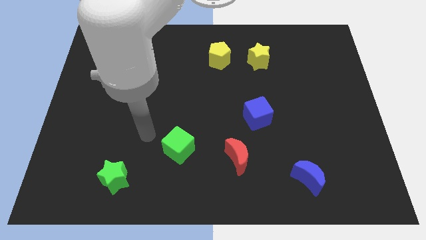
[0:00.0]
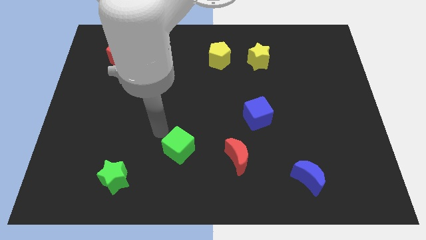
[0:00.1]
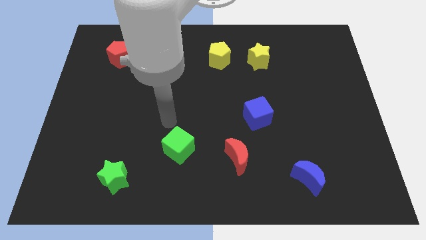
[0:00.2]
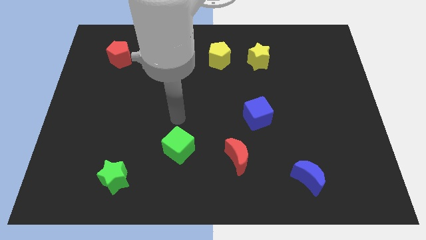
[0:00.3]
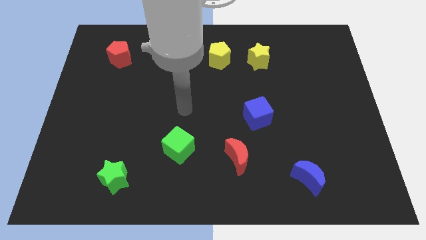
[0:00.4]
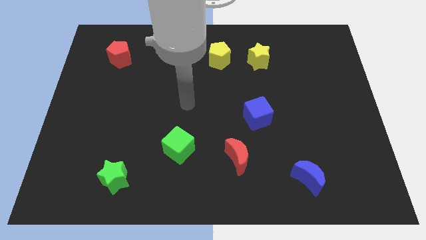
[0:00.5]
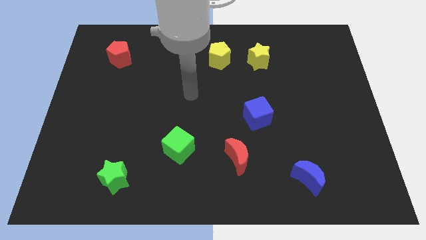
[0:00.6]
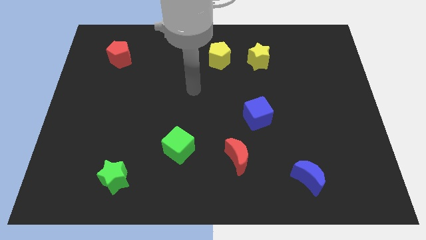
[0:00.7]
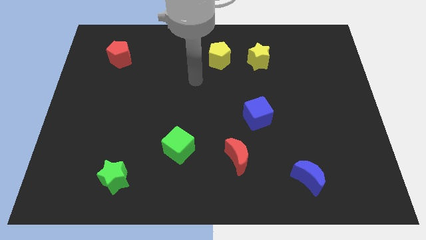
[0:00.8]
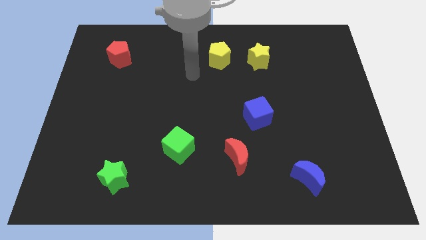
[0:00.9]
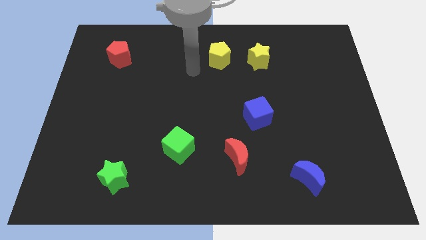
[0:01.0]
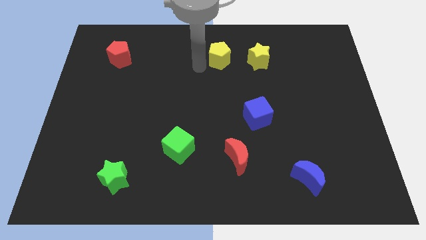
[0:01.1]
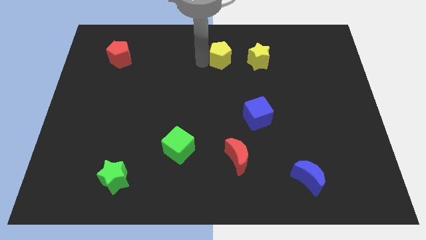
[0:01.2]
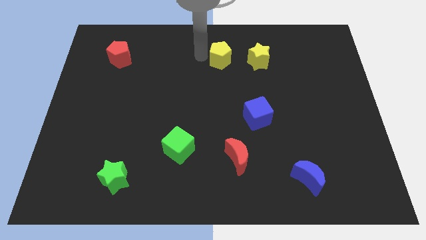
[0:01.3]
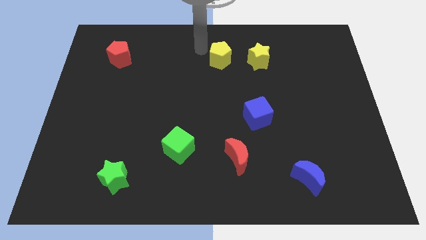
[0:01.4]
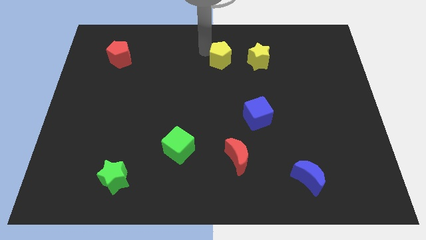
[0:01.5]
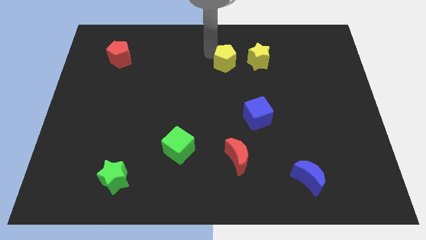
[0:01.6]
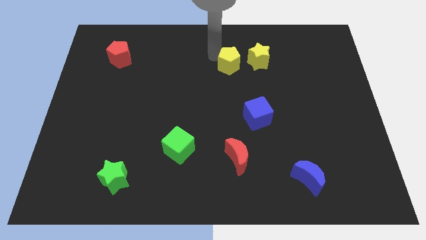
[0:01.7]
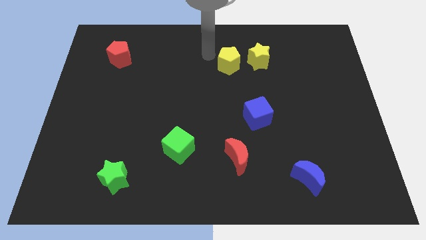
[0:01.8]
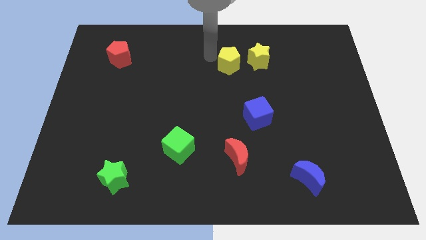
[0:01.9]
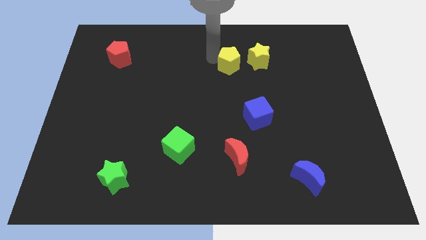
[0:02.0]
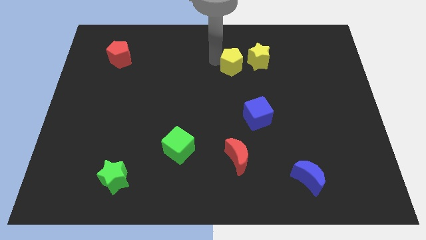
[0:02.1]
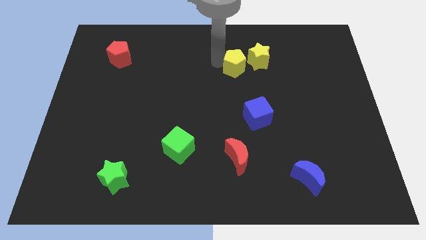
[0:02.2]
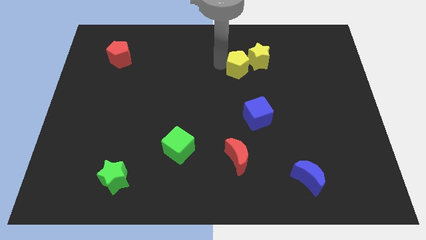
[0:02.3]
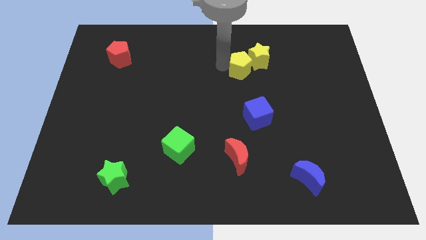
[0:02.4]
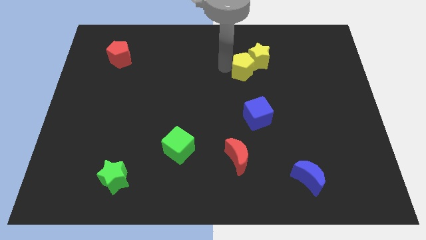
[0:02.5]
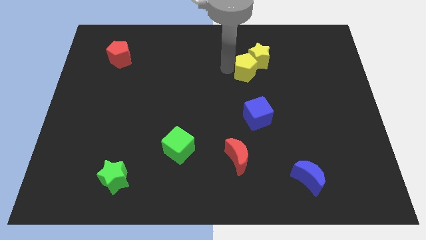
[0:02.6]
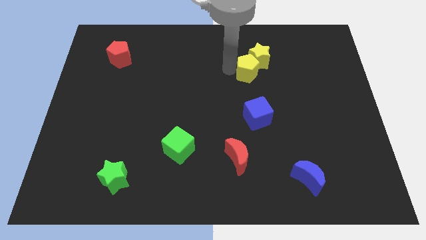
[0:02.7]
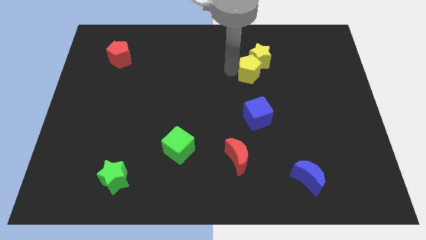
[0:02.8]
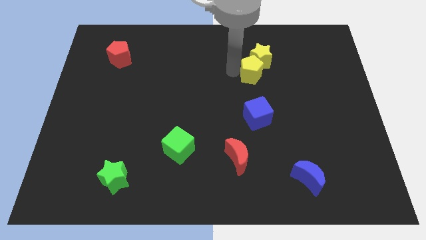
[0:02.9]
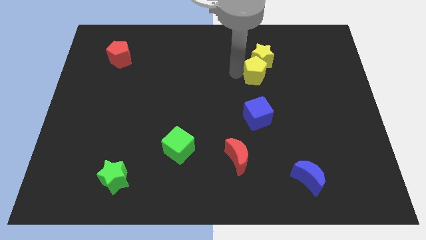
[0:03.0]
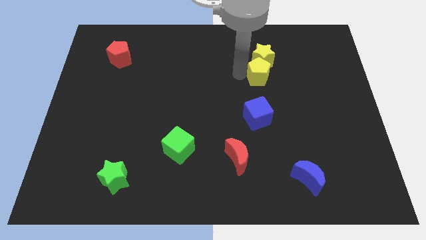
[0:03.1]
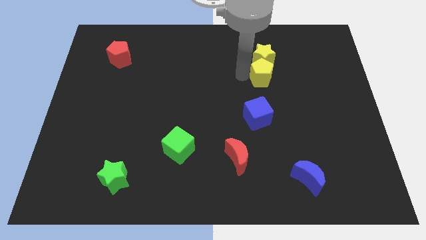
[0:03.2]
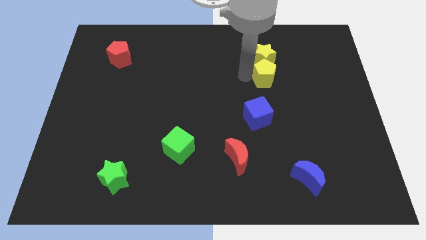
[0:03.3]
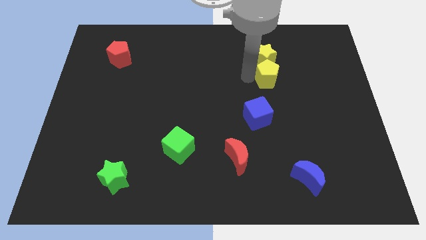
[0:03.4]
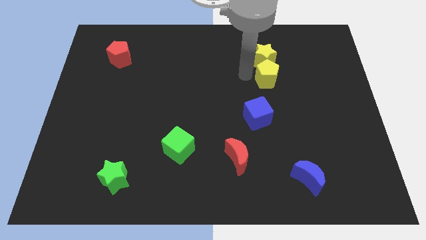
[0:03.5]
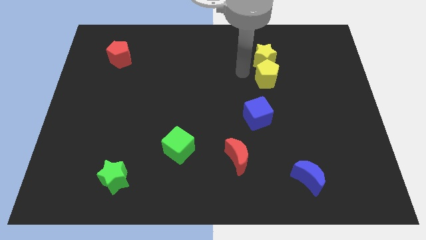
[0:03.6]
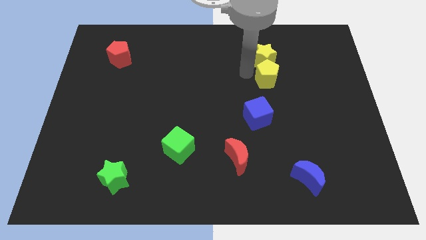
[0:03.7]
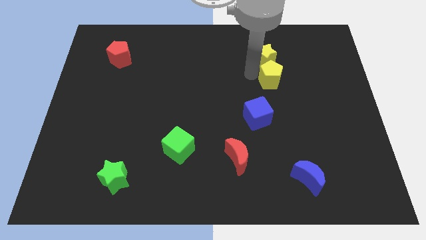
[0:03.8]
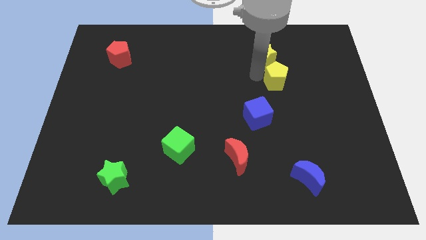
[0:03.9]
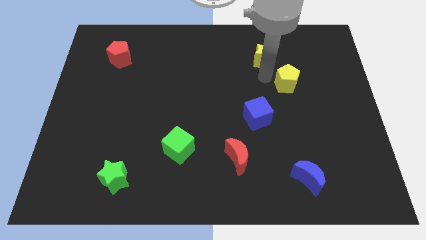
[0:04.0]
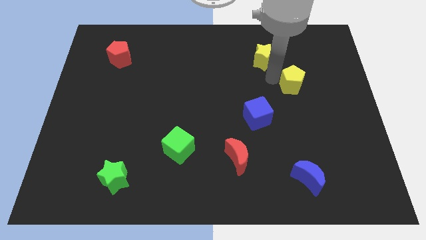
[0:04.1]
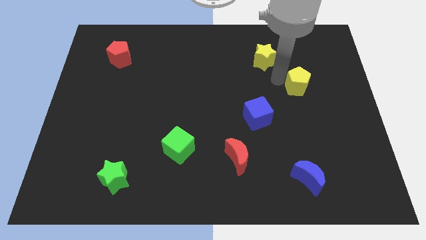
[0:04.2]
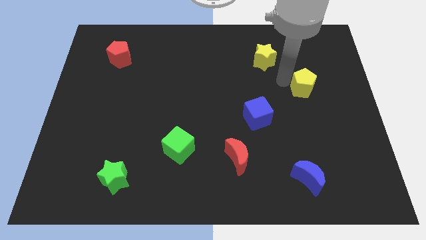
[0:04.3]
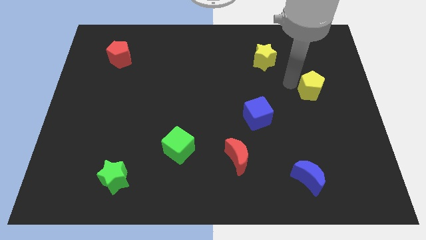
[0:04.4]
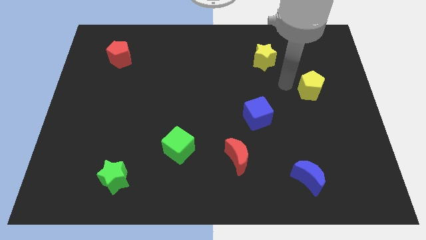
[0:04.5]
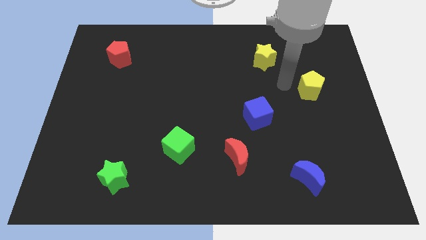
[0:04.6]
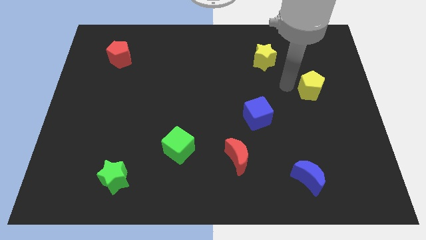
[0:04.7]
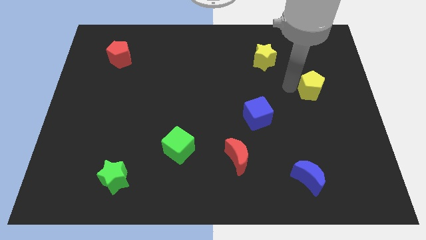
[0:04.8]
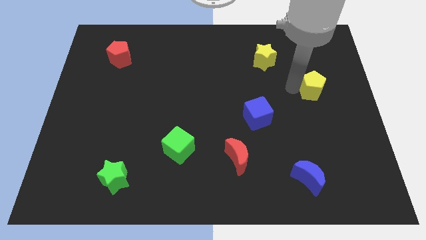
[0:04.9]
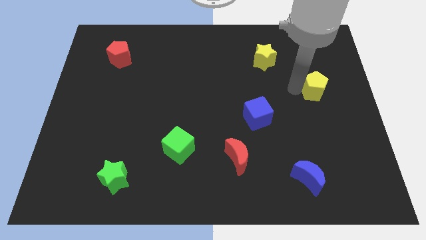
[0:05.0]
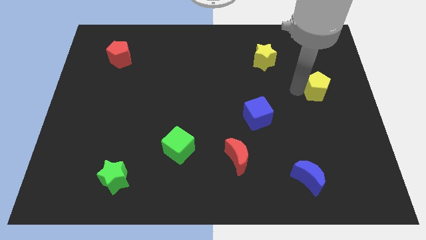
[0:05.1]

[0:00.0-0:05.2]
put the yellow pentagon to the right side

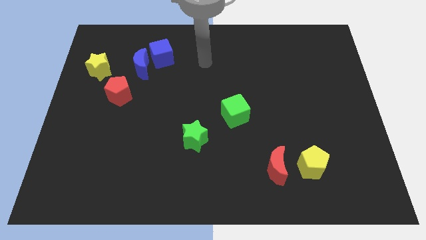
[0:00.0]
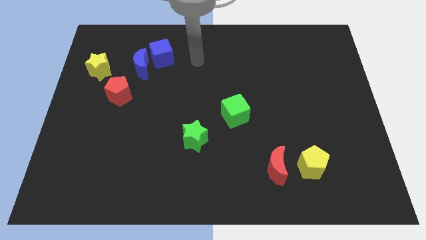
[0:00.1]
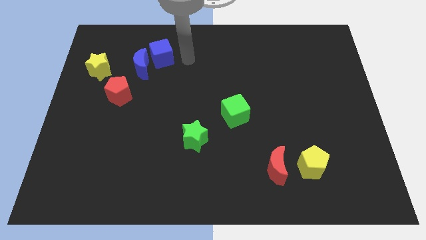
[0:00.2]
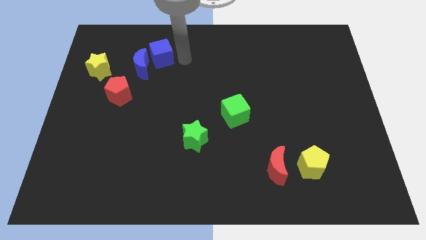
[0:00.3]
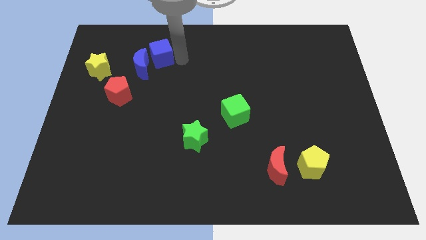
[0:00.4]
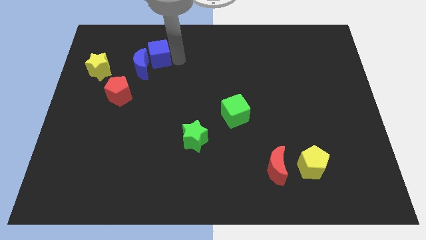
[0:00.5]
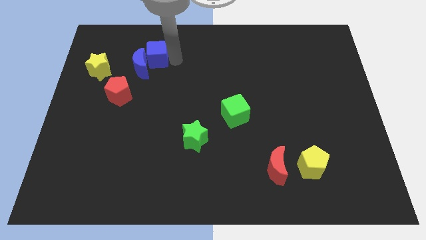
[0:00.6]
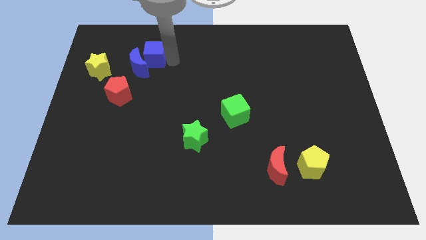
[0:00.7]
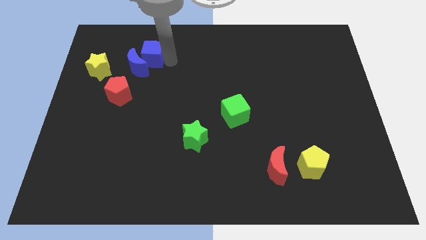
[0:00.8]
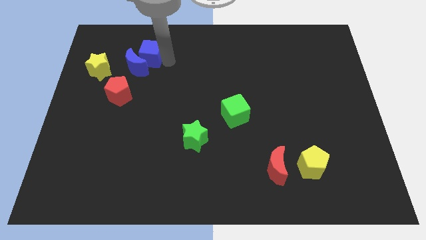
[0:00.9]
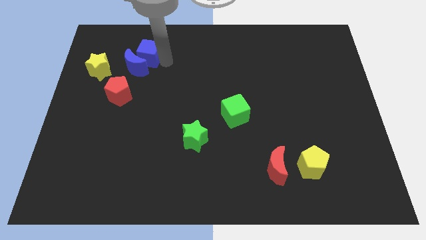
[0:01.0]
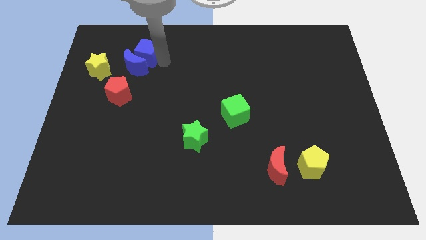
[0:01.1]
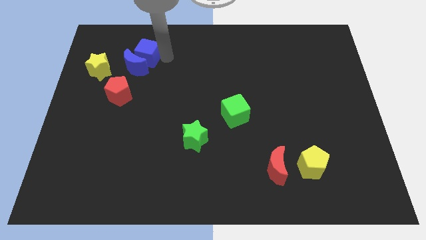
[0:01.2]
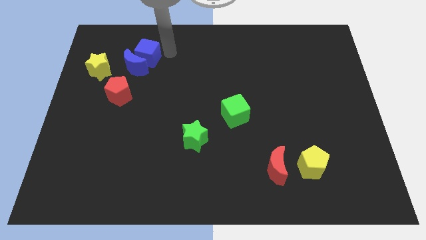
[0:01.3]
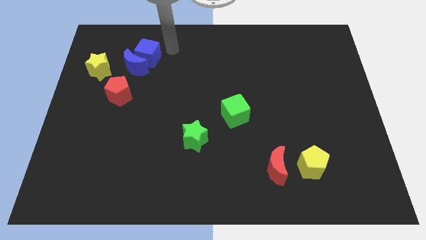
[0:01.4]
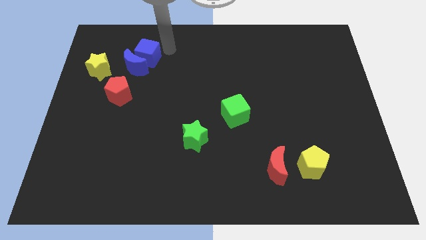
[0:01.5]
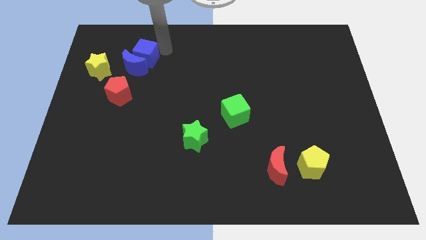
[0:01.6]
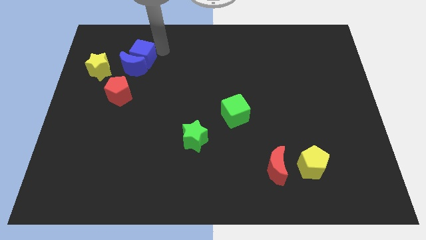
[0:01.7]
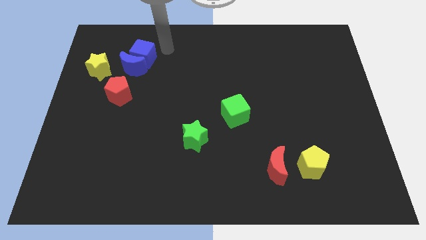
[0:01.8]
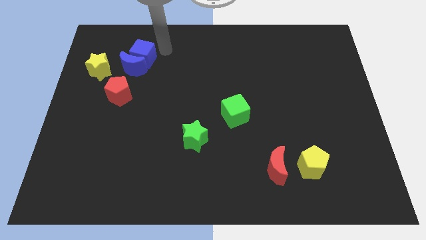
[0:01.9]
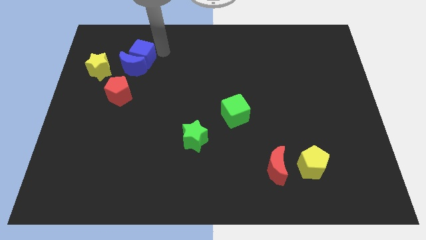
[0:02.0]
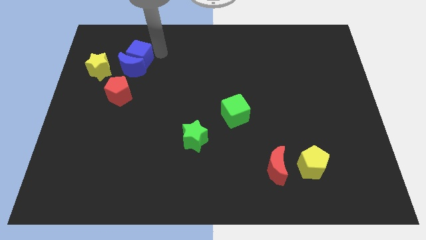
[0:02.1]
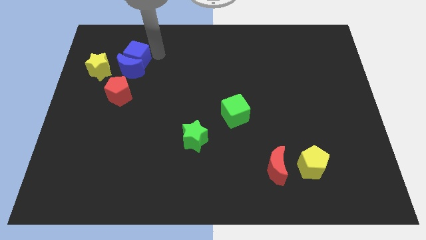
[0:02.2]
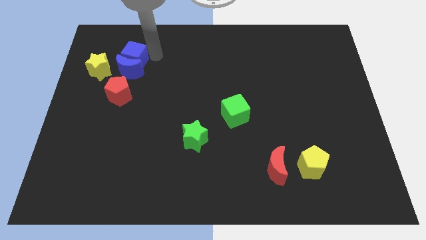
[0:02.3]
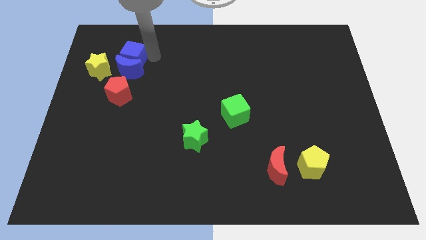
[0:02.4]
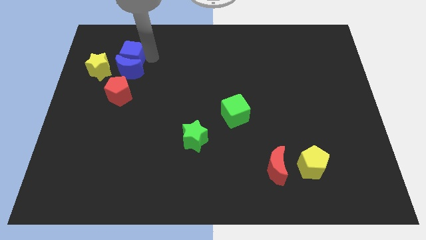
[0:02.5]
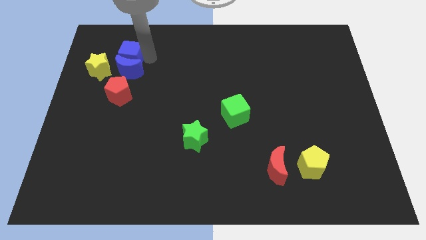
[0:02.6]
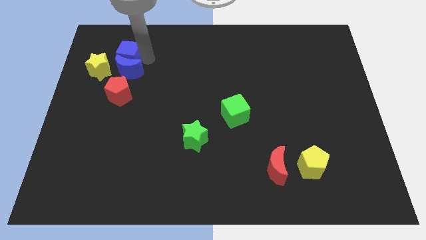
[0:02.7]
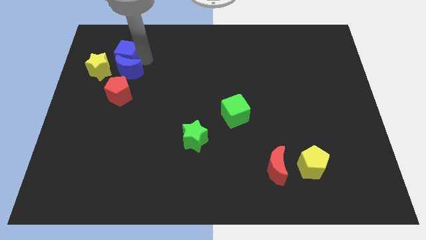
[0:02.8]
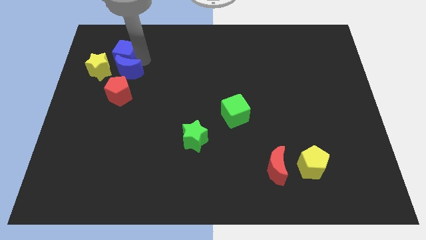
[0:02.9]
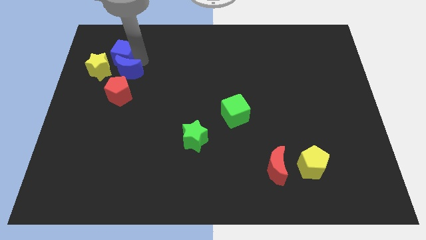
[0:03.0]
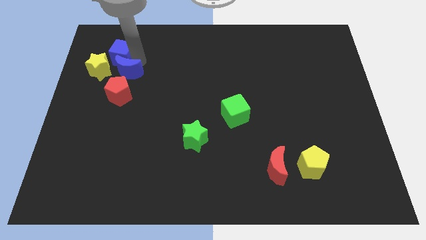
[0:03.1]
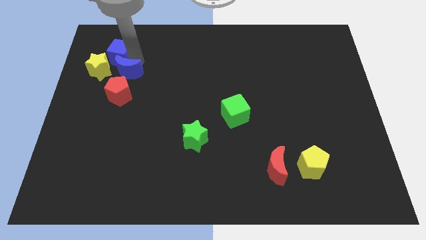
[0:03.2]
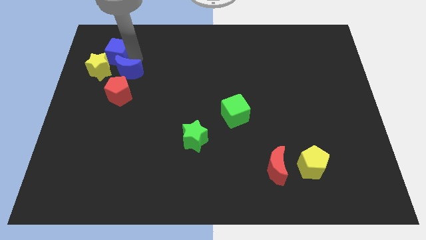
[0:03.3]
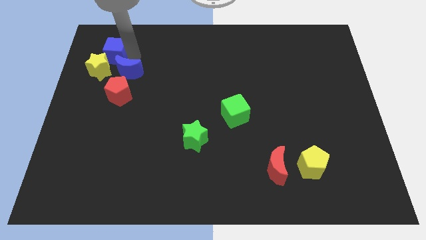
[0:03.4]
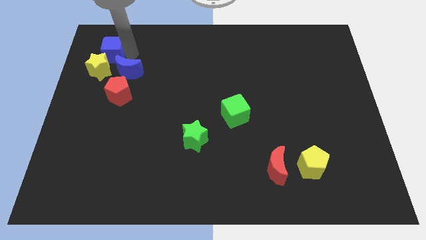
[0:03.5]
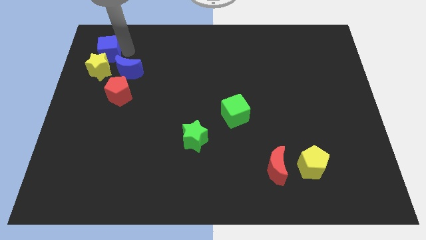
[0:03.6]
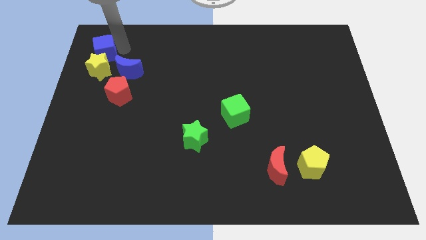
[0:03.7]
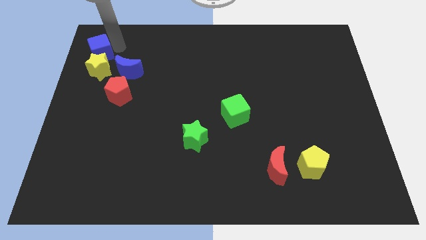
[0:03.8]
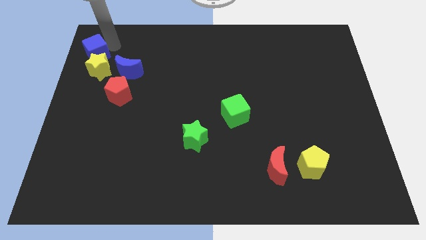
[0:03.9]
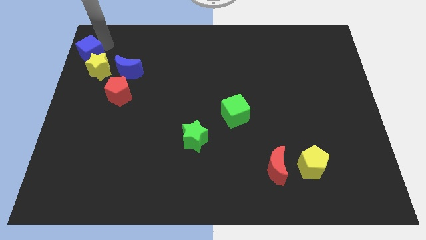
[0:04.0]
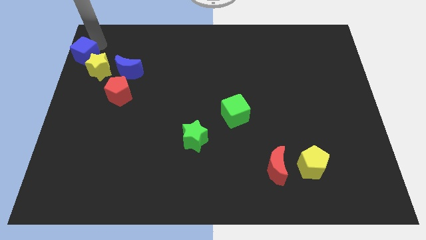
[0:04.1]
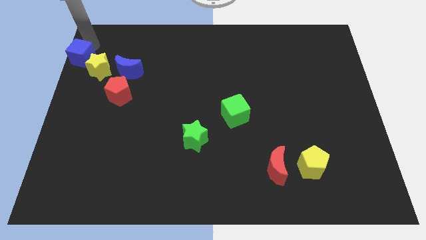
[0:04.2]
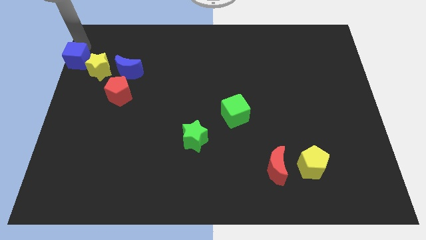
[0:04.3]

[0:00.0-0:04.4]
put the blue cube to the left side of the board
